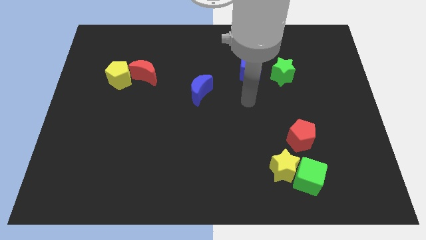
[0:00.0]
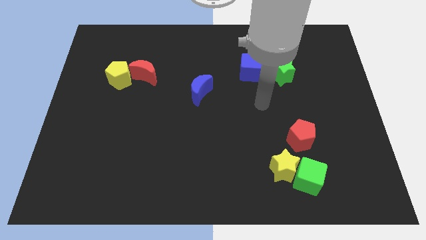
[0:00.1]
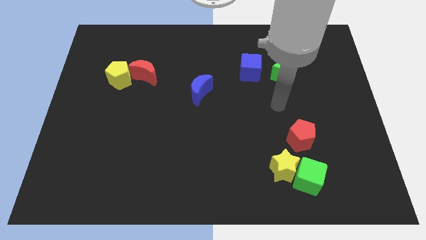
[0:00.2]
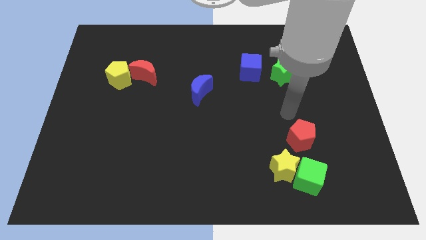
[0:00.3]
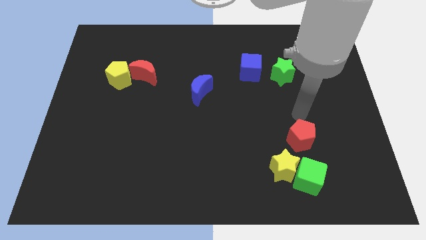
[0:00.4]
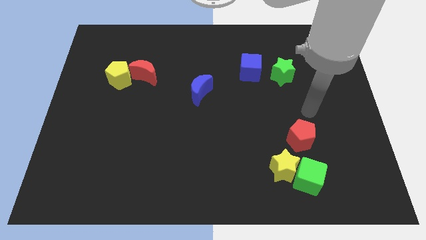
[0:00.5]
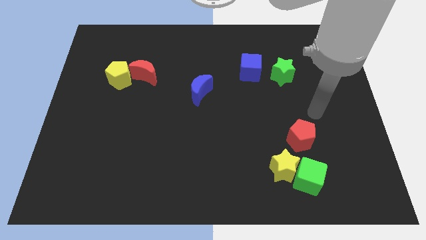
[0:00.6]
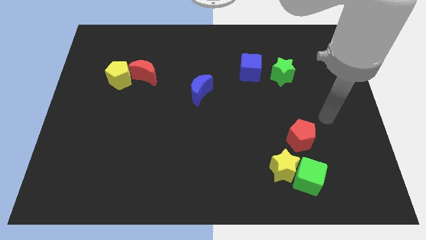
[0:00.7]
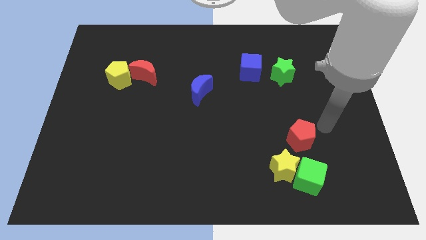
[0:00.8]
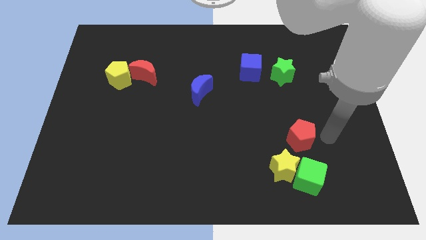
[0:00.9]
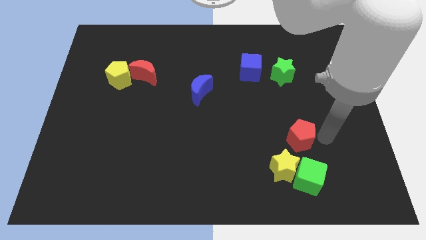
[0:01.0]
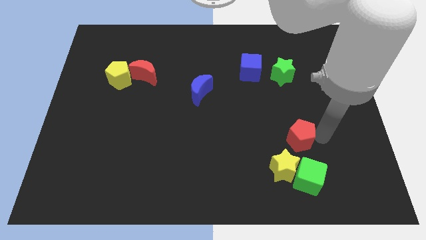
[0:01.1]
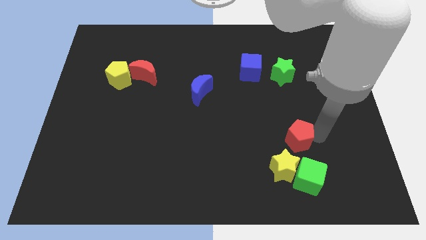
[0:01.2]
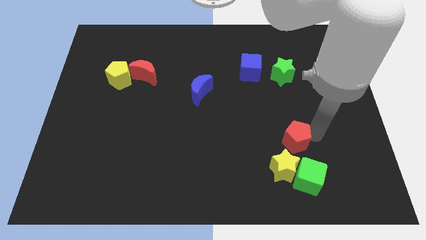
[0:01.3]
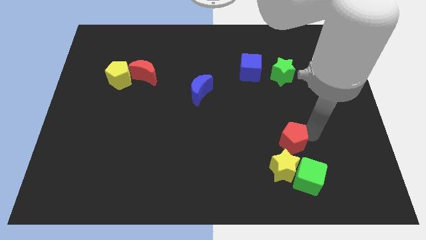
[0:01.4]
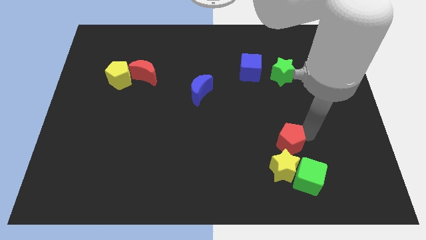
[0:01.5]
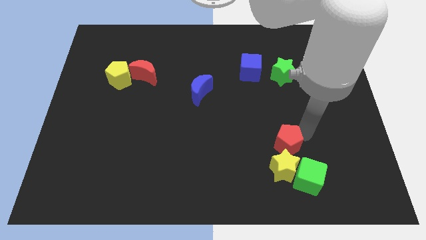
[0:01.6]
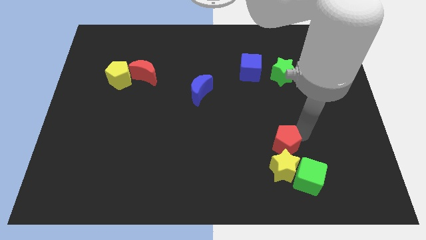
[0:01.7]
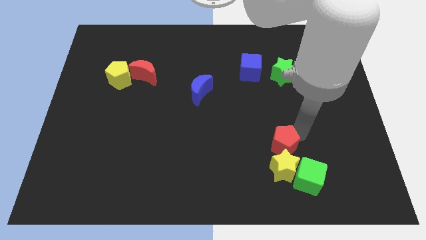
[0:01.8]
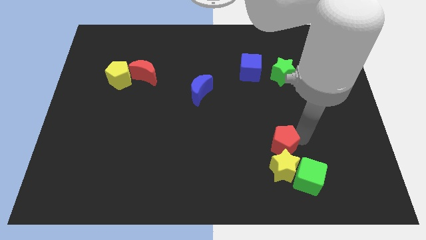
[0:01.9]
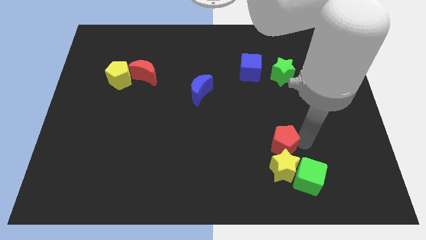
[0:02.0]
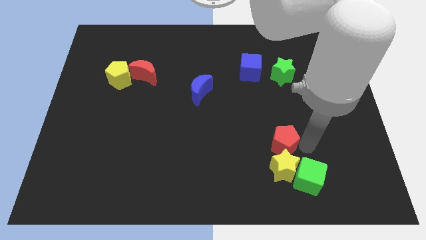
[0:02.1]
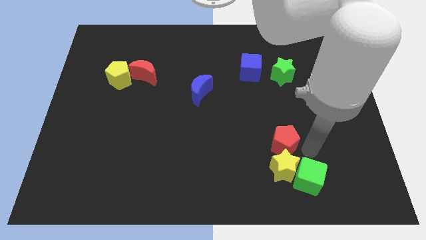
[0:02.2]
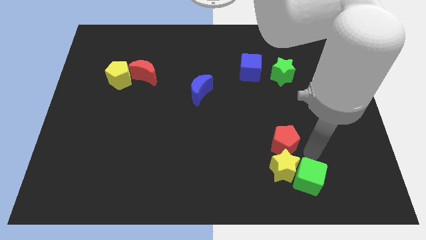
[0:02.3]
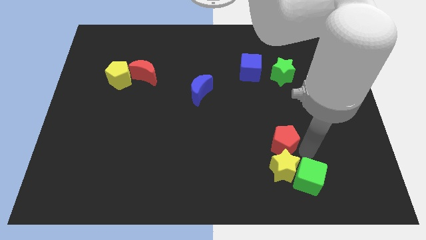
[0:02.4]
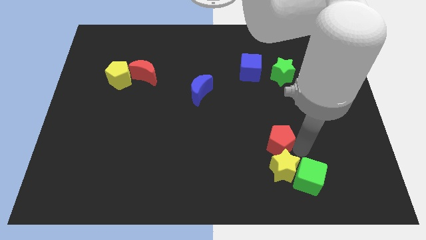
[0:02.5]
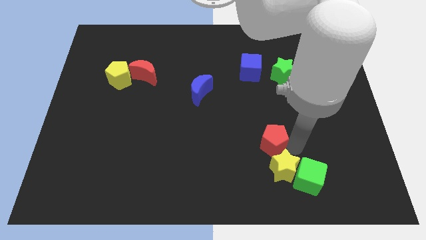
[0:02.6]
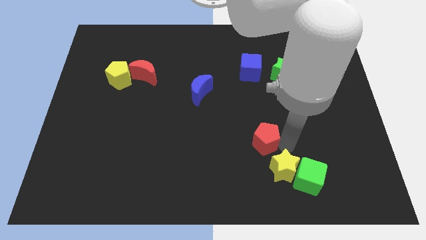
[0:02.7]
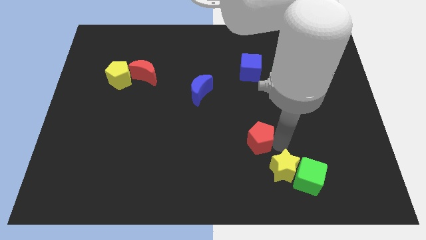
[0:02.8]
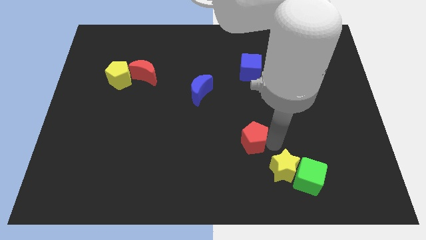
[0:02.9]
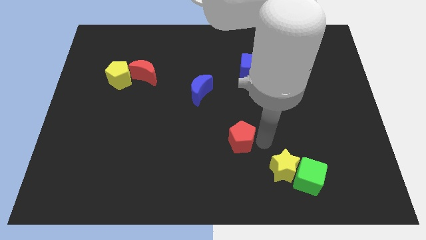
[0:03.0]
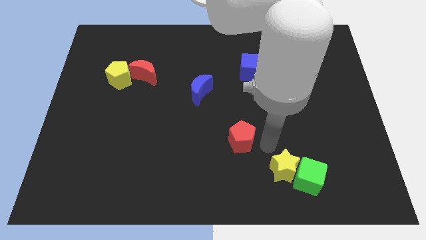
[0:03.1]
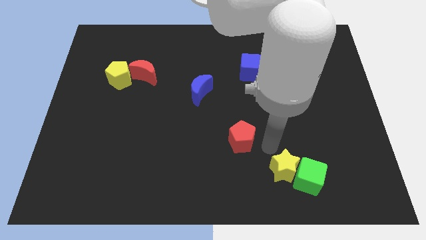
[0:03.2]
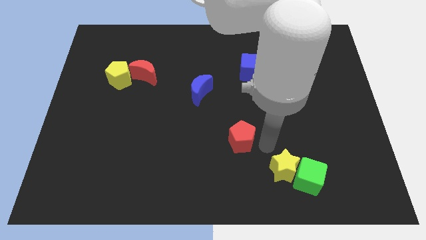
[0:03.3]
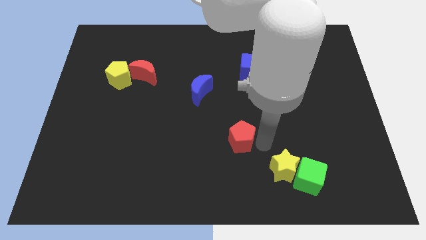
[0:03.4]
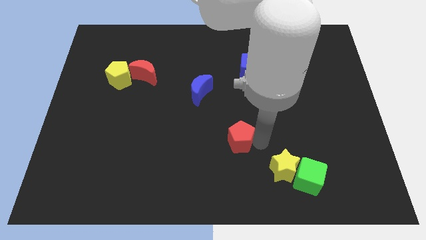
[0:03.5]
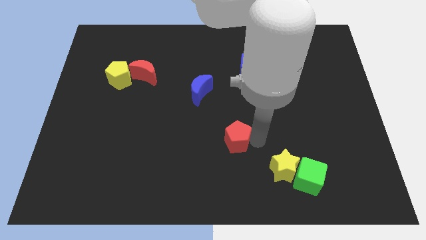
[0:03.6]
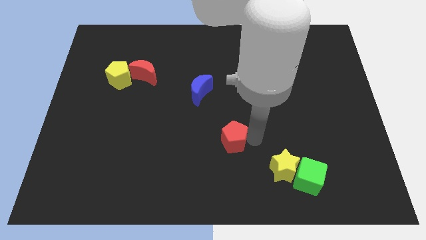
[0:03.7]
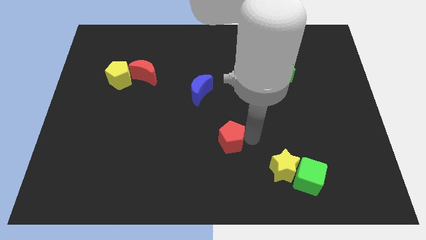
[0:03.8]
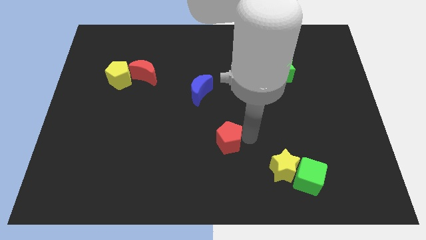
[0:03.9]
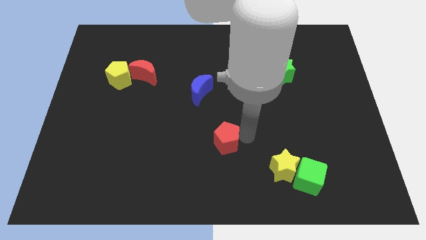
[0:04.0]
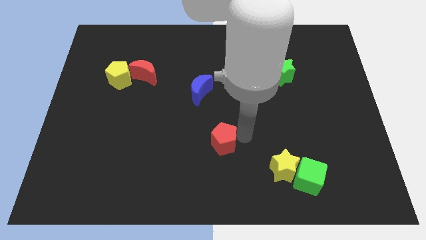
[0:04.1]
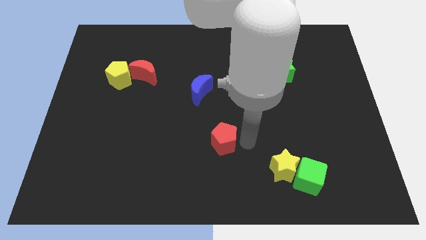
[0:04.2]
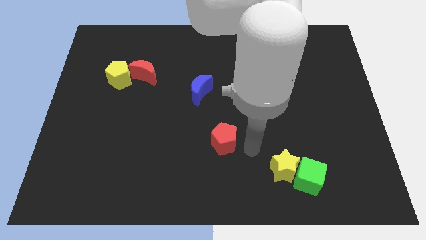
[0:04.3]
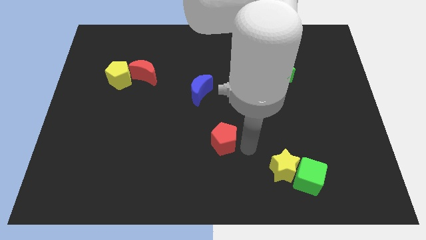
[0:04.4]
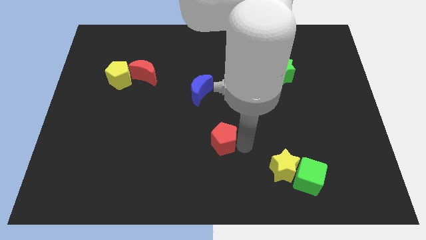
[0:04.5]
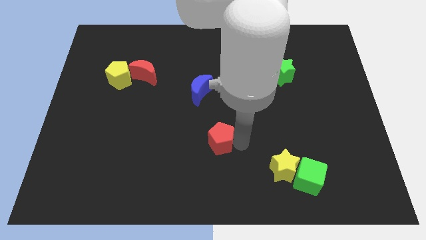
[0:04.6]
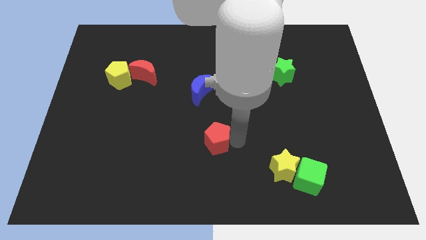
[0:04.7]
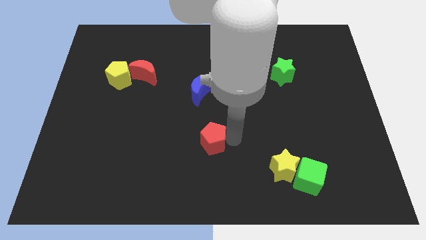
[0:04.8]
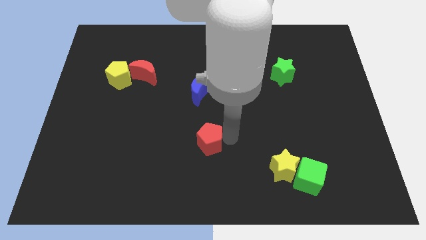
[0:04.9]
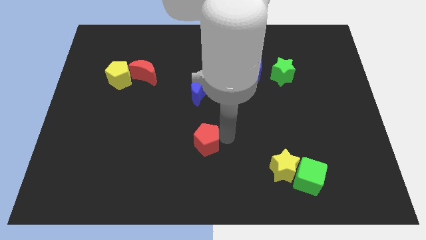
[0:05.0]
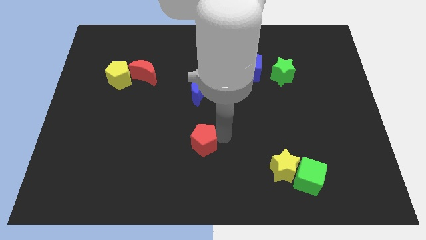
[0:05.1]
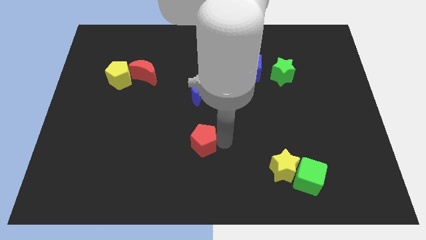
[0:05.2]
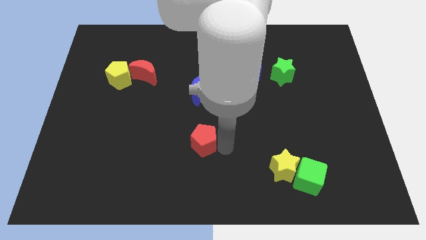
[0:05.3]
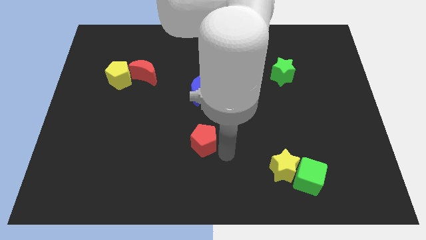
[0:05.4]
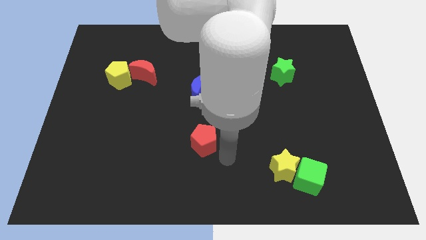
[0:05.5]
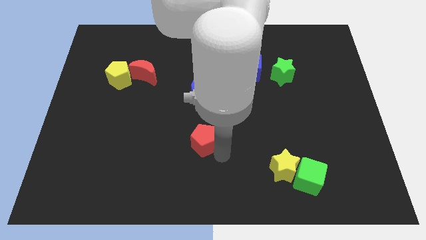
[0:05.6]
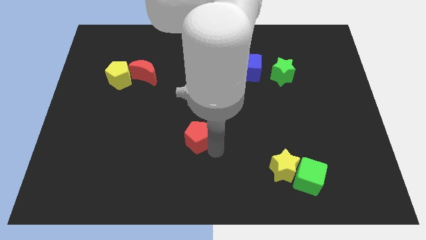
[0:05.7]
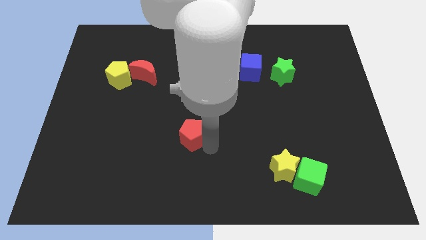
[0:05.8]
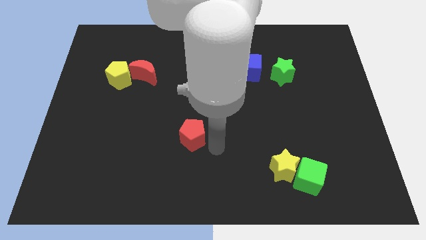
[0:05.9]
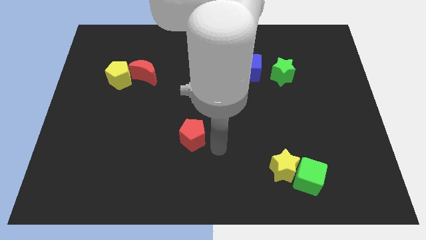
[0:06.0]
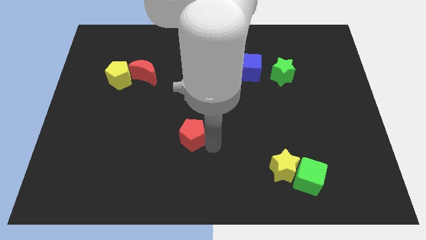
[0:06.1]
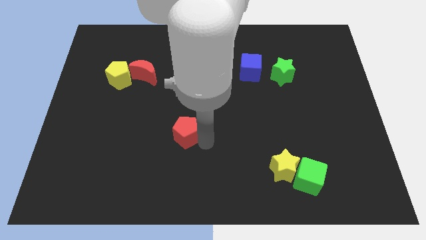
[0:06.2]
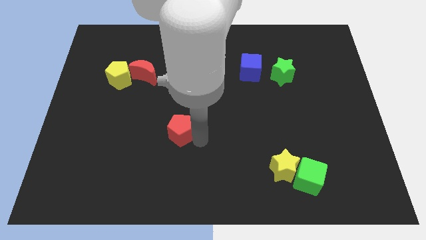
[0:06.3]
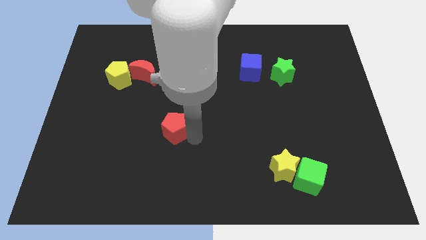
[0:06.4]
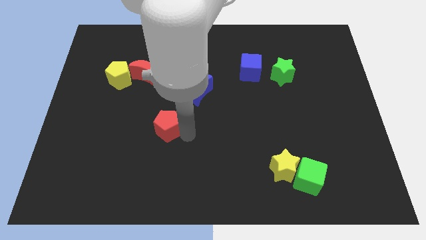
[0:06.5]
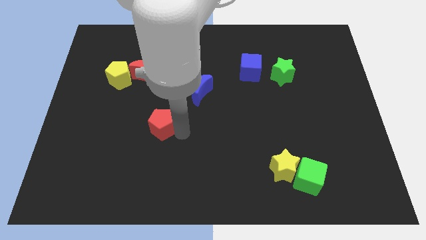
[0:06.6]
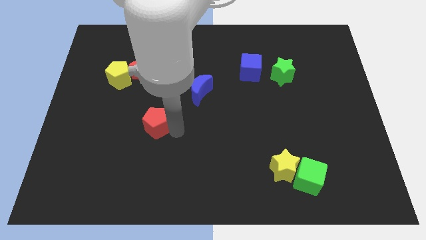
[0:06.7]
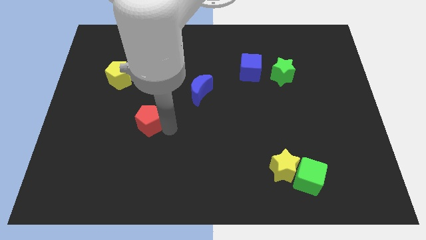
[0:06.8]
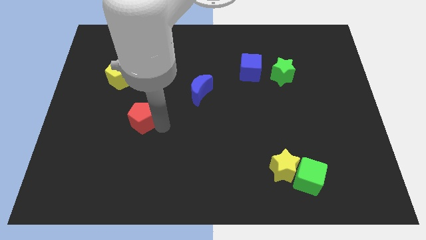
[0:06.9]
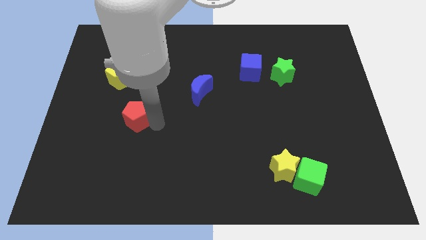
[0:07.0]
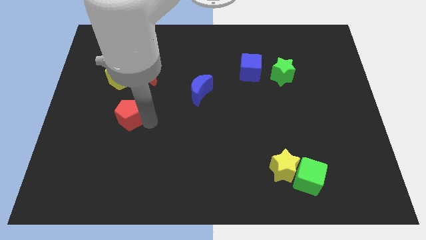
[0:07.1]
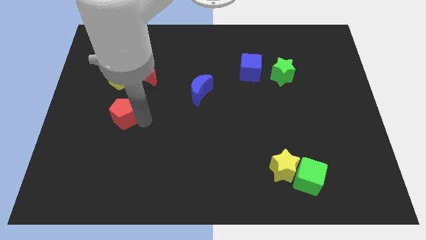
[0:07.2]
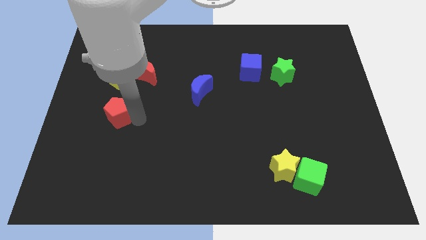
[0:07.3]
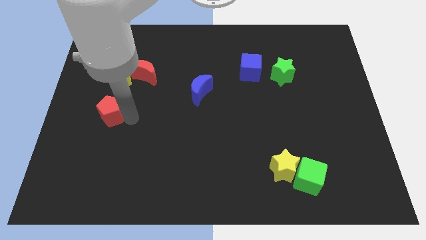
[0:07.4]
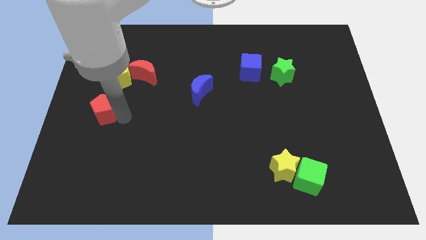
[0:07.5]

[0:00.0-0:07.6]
push the red pentagon to the center left
